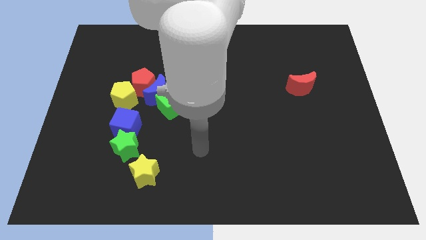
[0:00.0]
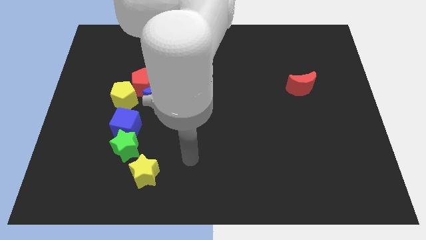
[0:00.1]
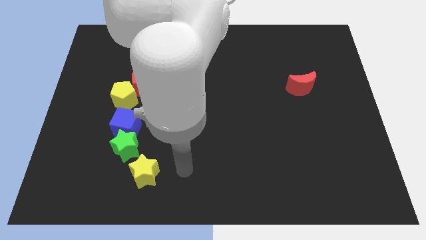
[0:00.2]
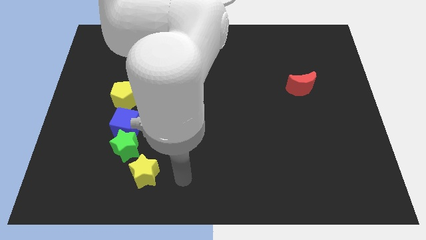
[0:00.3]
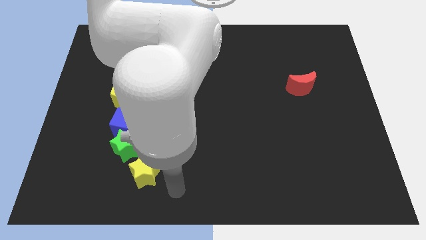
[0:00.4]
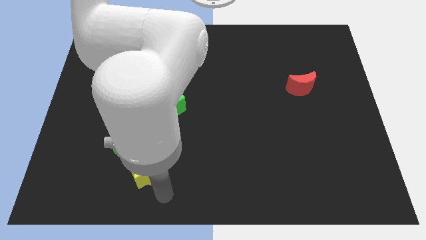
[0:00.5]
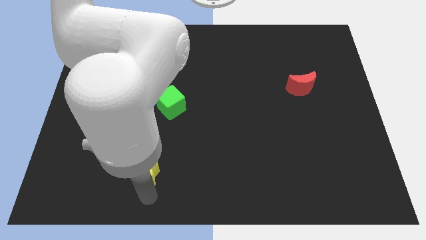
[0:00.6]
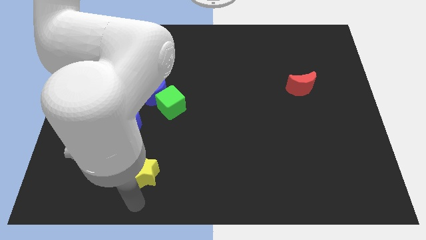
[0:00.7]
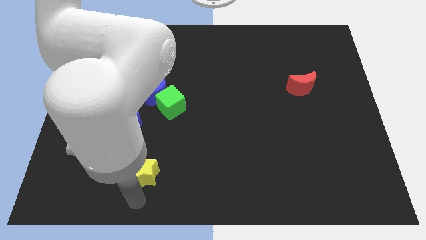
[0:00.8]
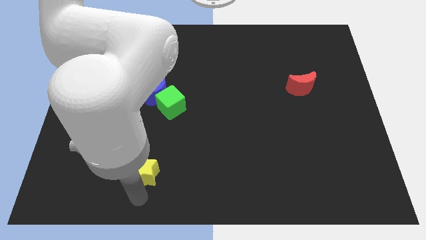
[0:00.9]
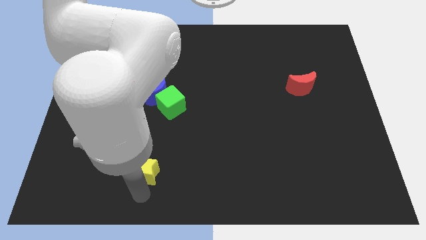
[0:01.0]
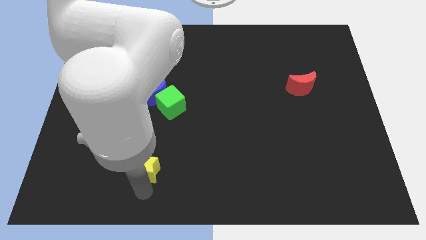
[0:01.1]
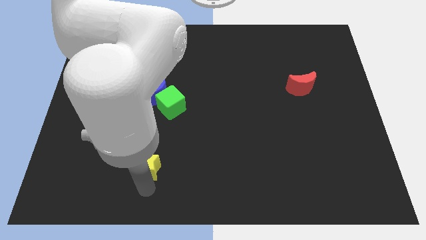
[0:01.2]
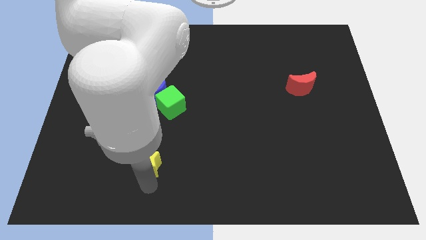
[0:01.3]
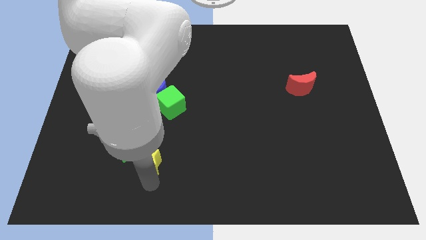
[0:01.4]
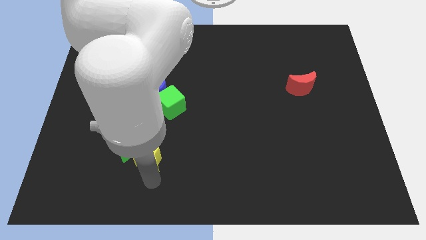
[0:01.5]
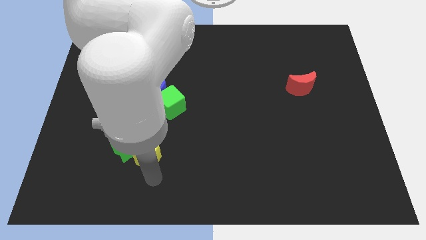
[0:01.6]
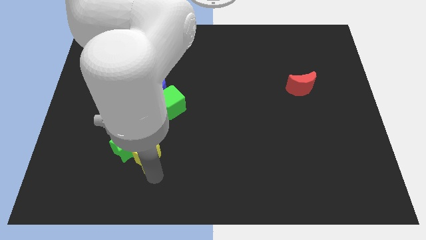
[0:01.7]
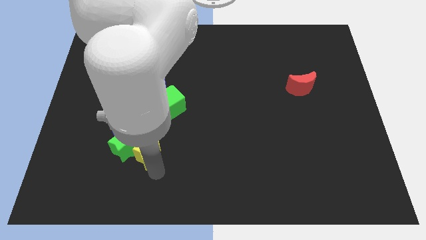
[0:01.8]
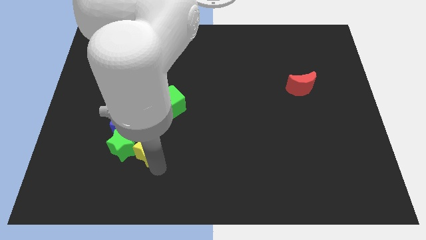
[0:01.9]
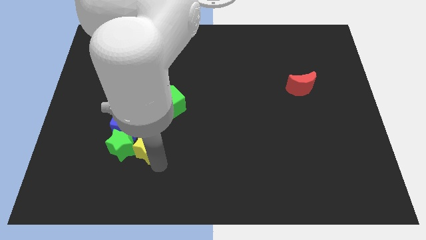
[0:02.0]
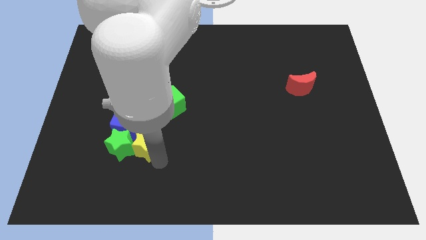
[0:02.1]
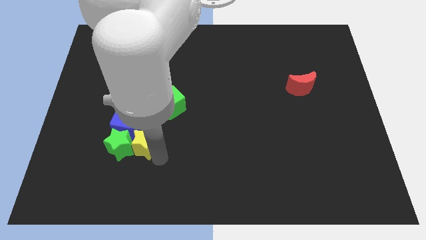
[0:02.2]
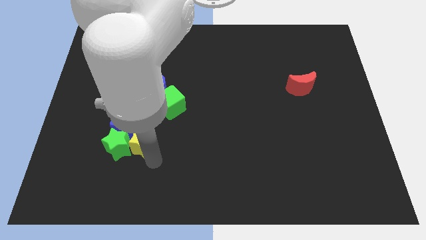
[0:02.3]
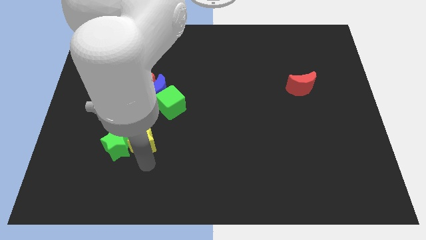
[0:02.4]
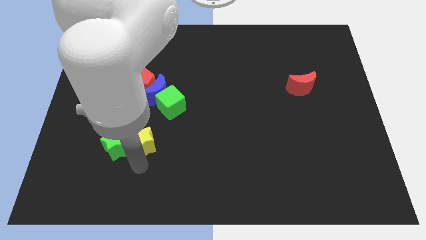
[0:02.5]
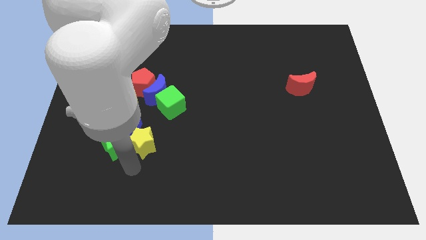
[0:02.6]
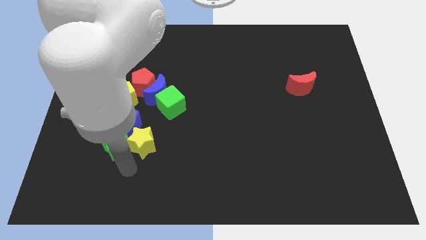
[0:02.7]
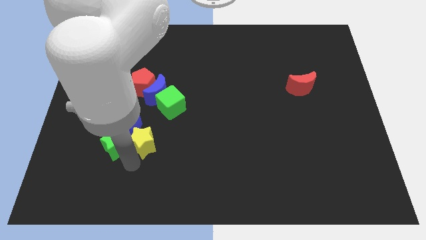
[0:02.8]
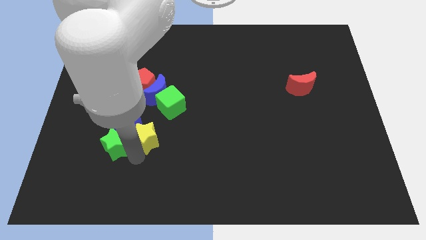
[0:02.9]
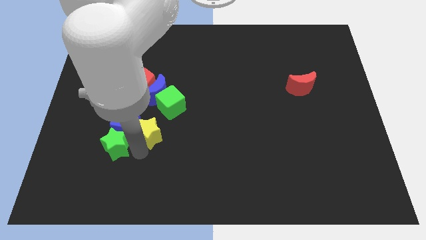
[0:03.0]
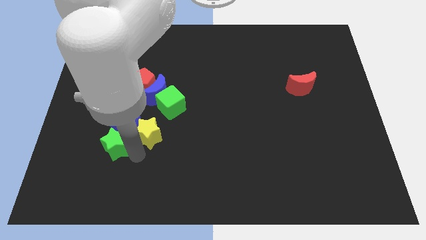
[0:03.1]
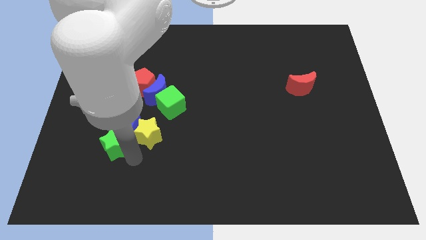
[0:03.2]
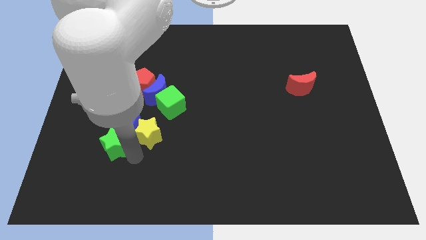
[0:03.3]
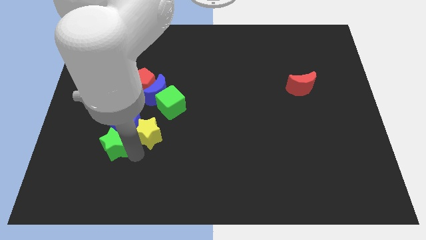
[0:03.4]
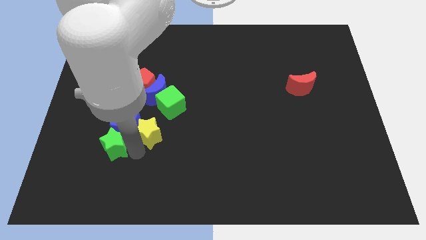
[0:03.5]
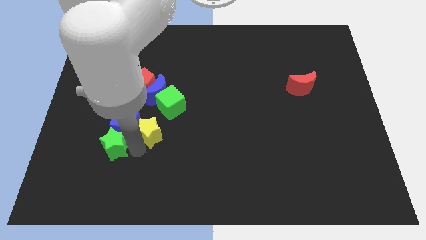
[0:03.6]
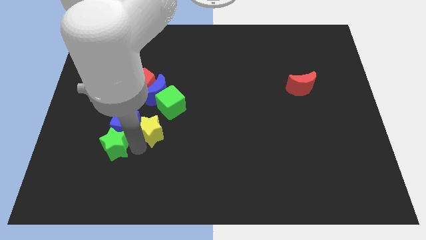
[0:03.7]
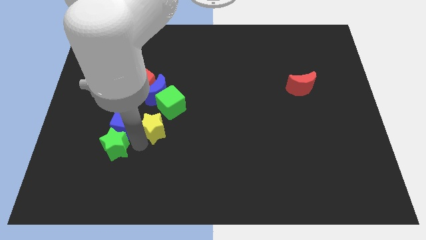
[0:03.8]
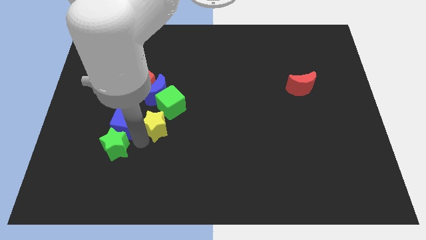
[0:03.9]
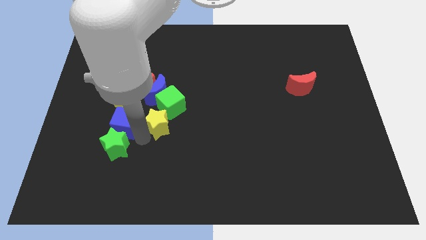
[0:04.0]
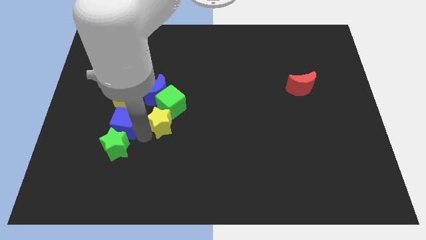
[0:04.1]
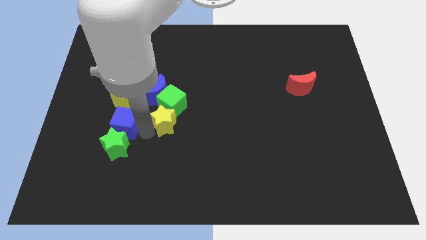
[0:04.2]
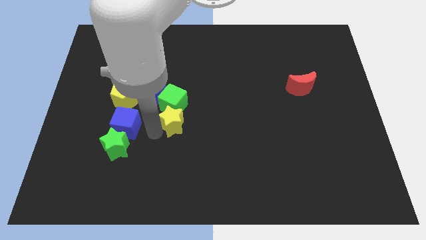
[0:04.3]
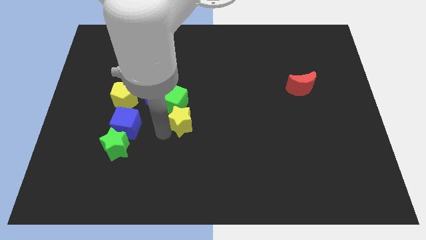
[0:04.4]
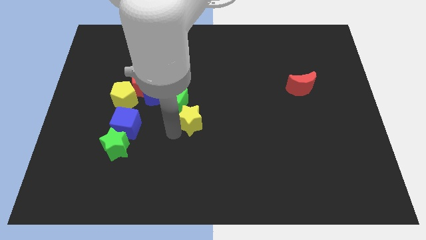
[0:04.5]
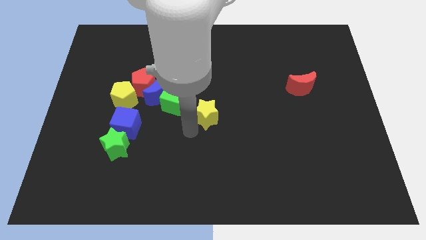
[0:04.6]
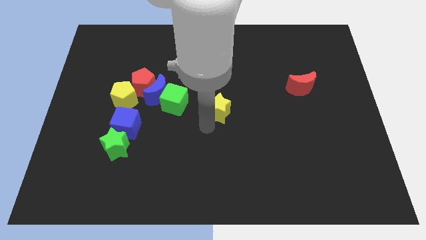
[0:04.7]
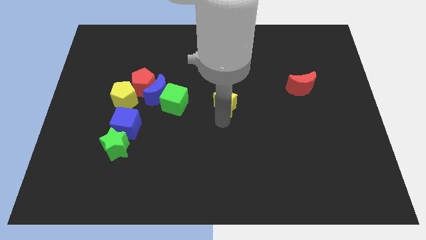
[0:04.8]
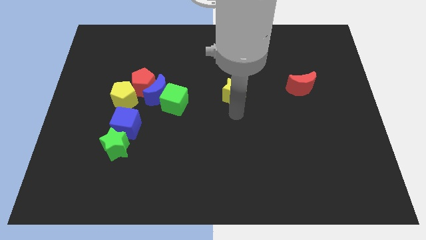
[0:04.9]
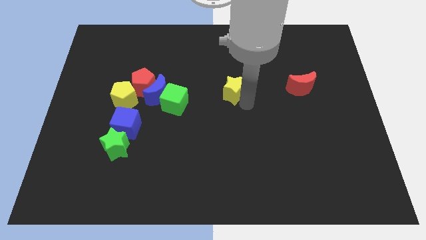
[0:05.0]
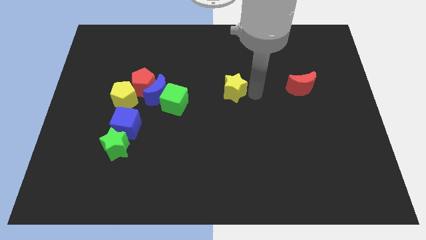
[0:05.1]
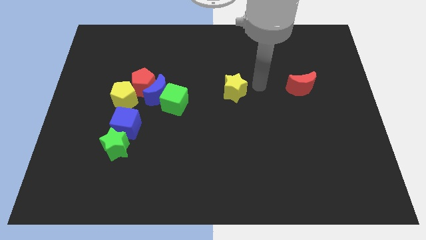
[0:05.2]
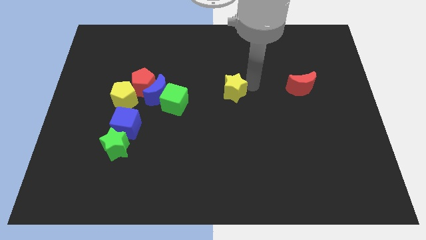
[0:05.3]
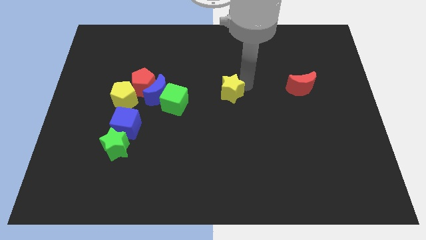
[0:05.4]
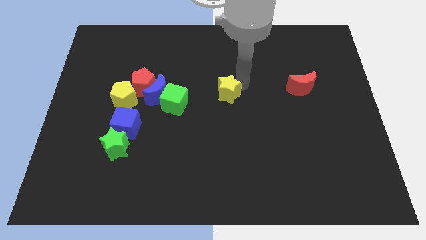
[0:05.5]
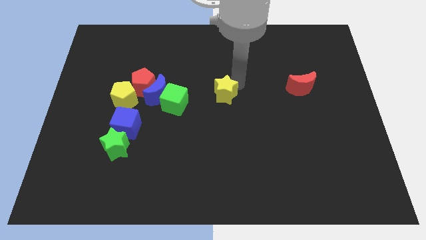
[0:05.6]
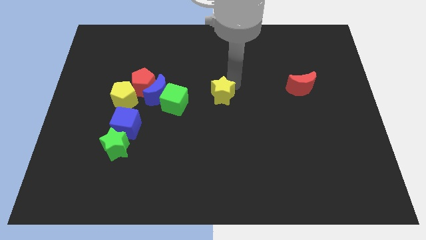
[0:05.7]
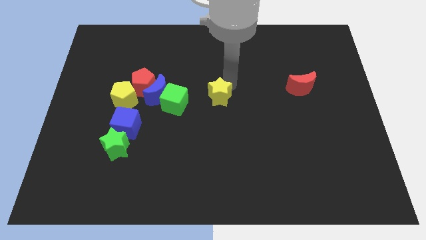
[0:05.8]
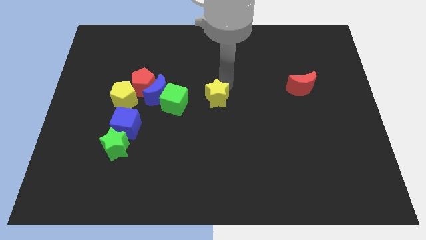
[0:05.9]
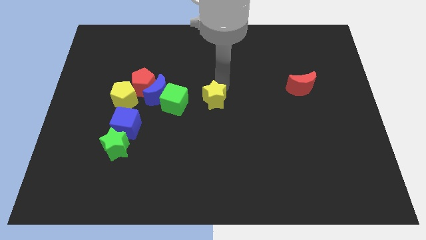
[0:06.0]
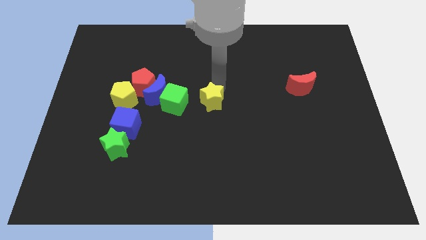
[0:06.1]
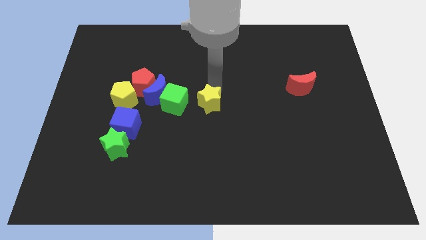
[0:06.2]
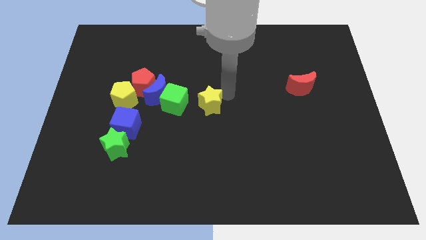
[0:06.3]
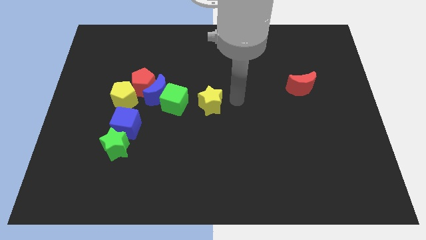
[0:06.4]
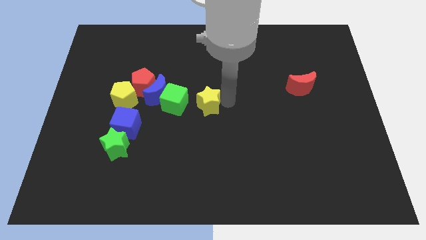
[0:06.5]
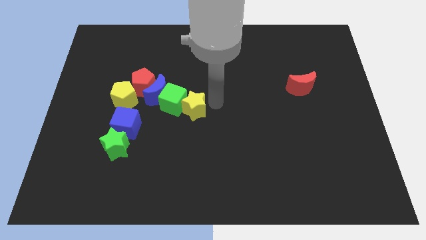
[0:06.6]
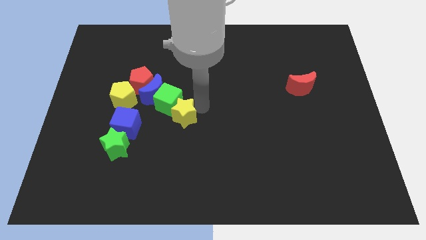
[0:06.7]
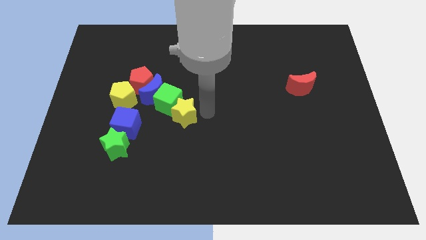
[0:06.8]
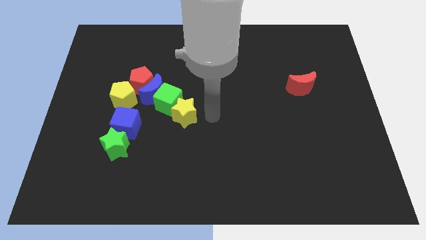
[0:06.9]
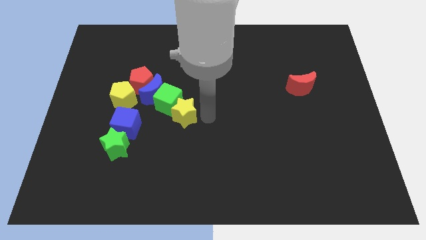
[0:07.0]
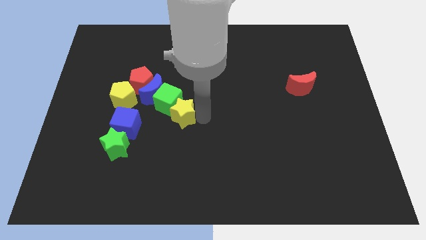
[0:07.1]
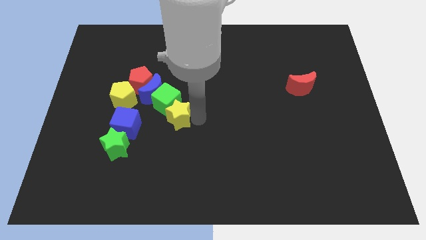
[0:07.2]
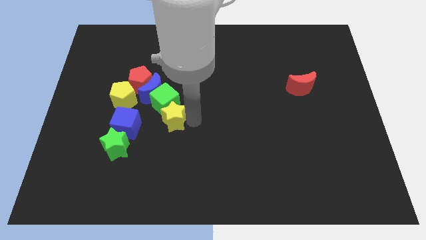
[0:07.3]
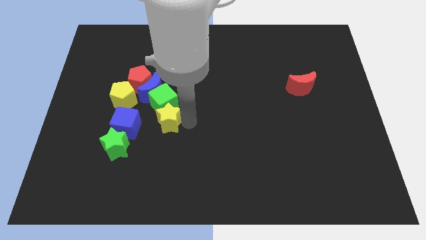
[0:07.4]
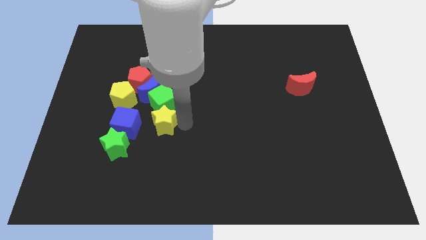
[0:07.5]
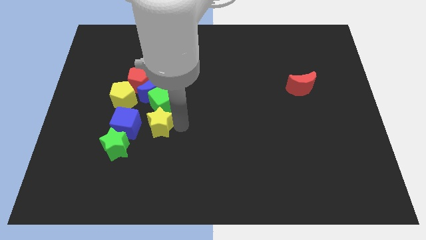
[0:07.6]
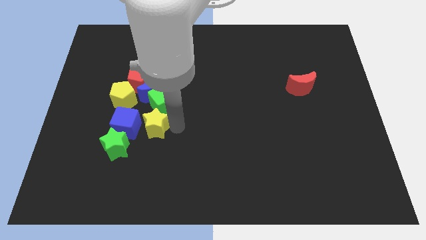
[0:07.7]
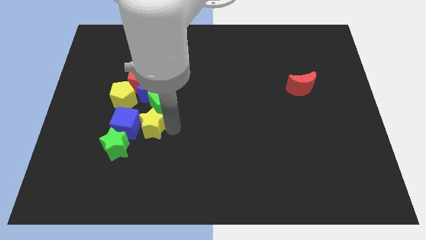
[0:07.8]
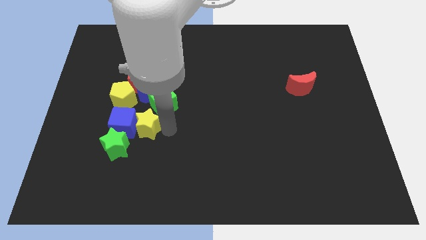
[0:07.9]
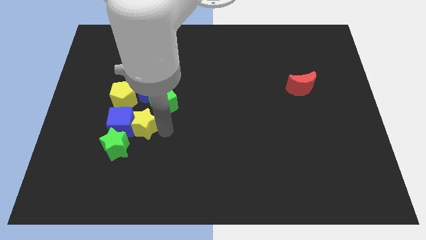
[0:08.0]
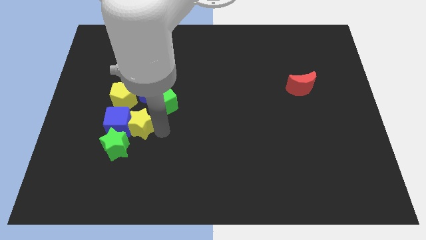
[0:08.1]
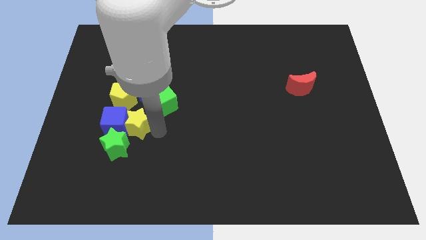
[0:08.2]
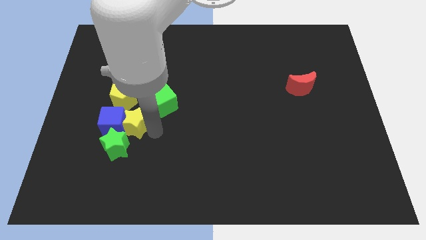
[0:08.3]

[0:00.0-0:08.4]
move the yellow star diagonally down and to the left of the blue moon
